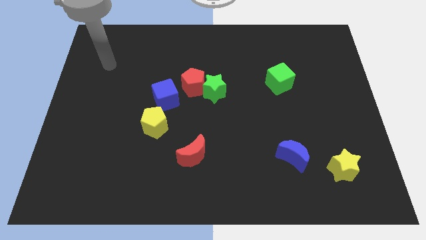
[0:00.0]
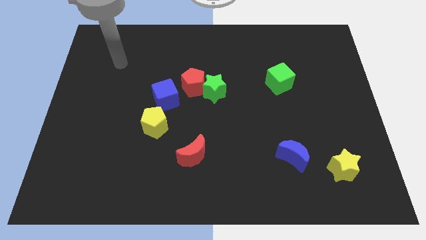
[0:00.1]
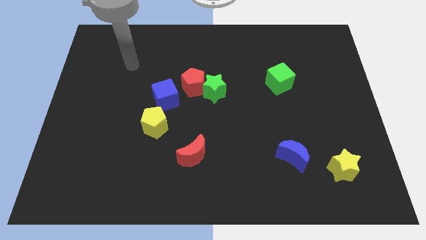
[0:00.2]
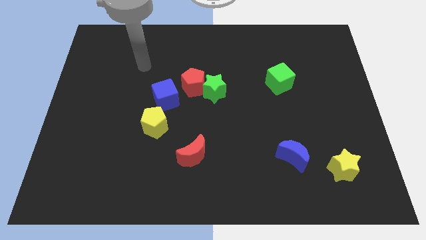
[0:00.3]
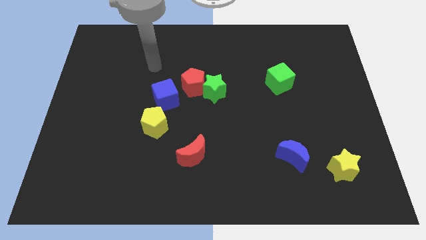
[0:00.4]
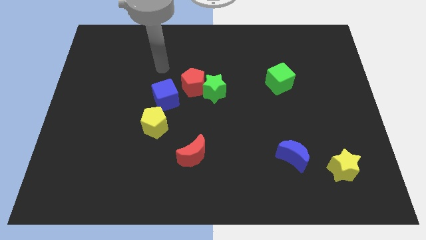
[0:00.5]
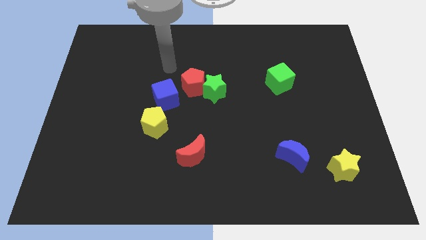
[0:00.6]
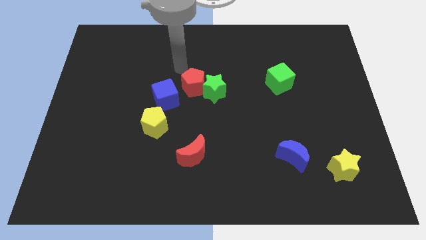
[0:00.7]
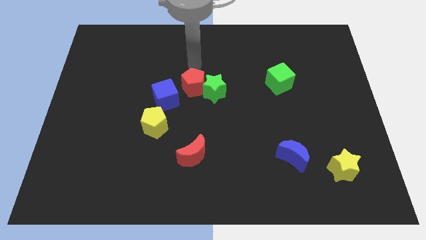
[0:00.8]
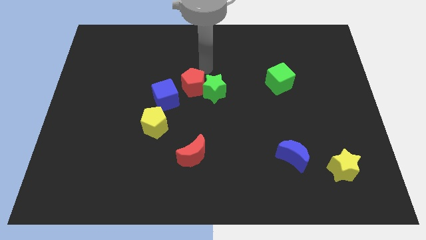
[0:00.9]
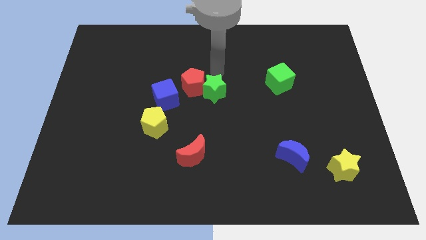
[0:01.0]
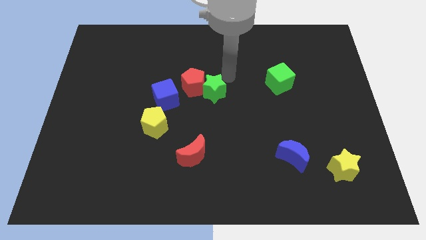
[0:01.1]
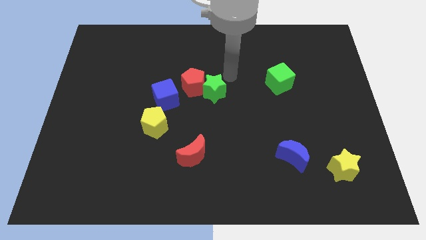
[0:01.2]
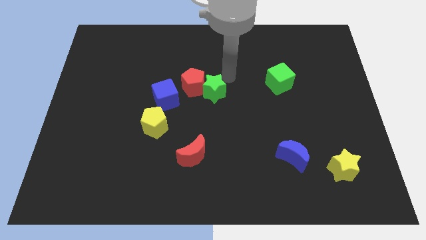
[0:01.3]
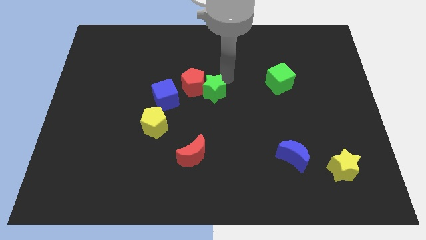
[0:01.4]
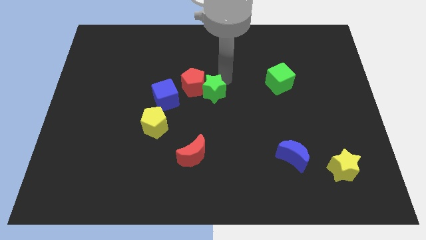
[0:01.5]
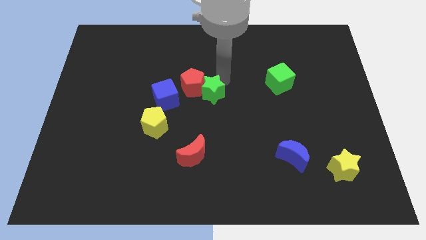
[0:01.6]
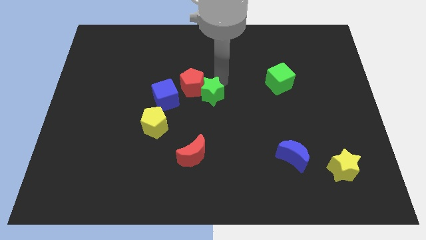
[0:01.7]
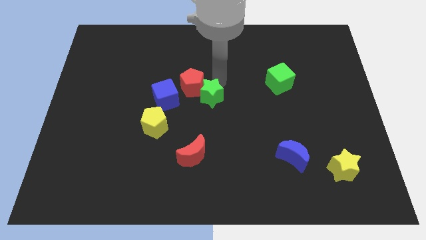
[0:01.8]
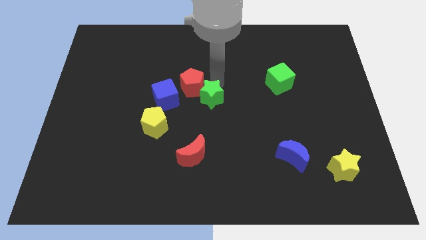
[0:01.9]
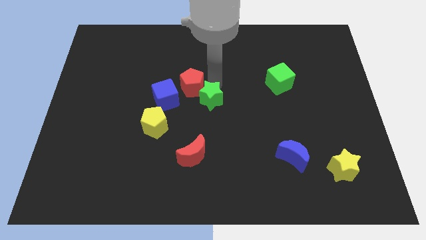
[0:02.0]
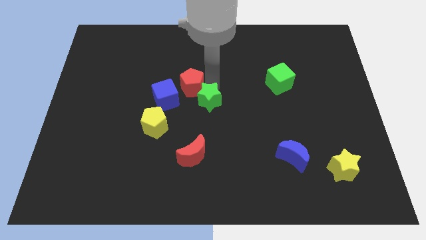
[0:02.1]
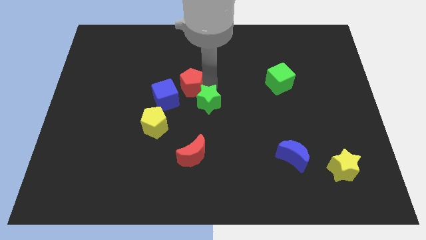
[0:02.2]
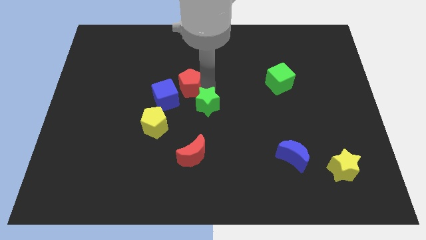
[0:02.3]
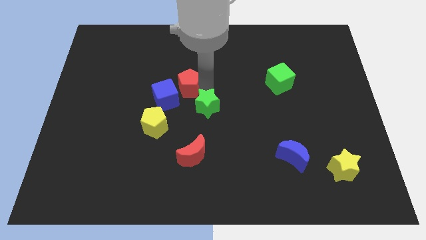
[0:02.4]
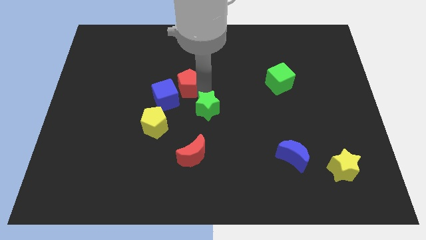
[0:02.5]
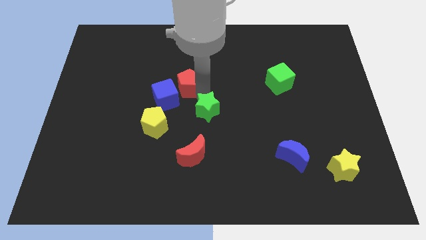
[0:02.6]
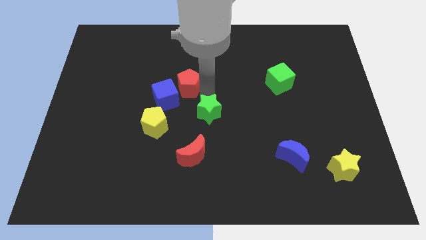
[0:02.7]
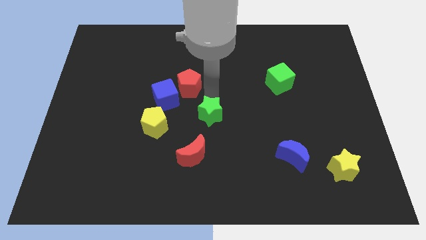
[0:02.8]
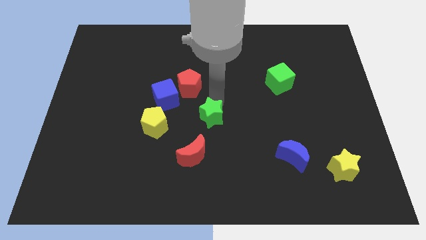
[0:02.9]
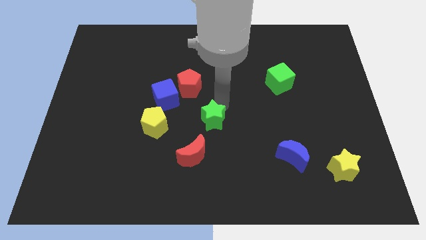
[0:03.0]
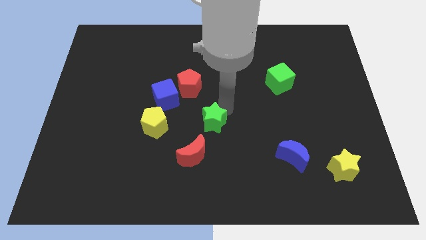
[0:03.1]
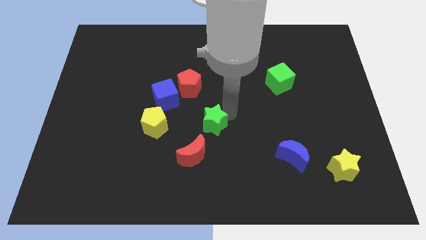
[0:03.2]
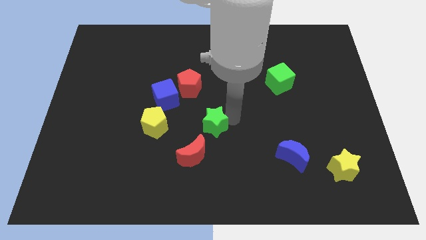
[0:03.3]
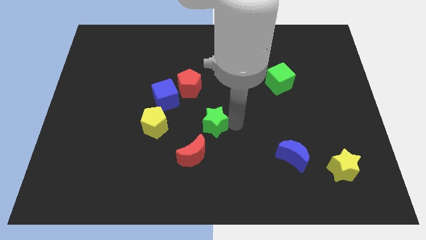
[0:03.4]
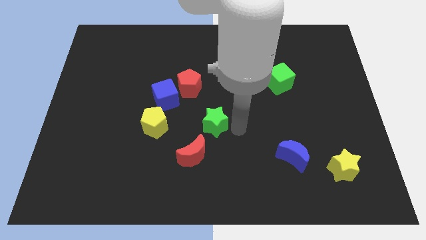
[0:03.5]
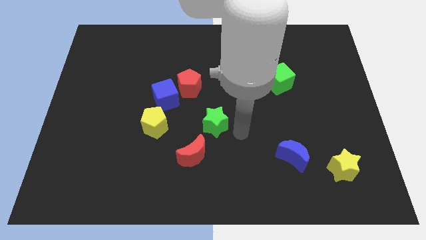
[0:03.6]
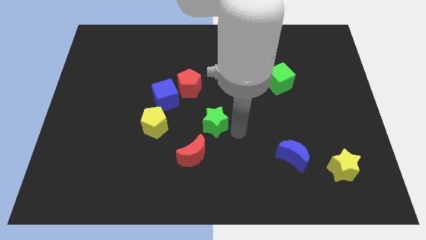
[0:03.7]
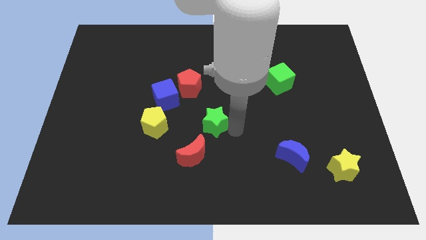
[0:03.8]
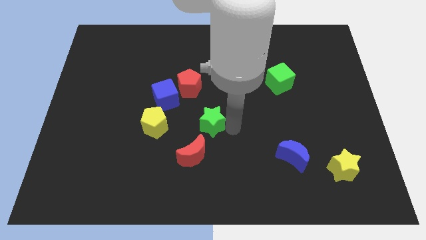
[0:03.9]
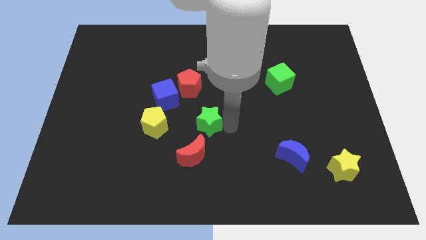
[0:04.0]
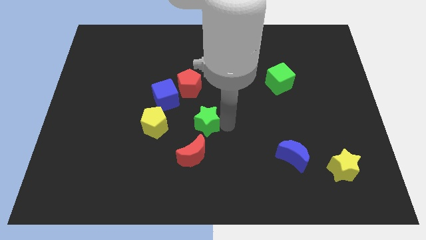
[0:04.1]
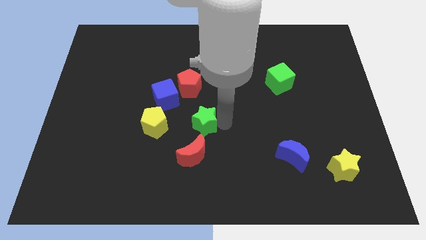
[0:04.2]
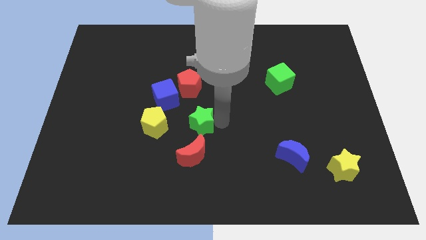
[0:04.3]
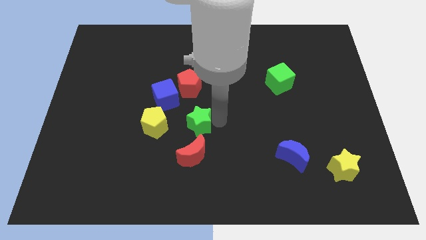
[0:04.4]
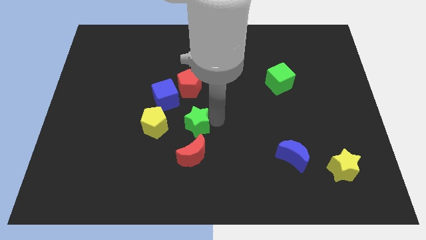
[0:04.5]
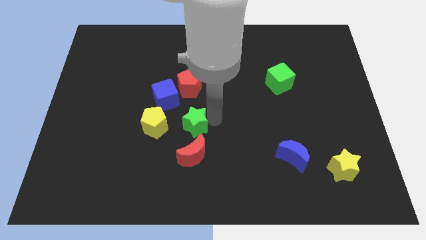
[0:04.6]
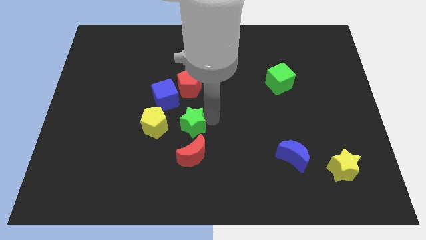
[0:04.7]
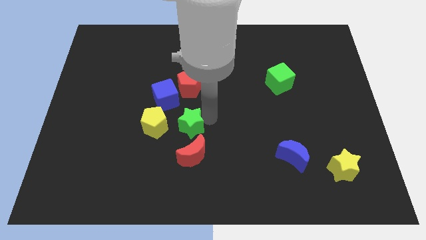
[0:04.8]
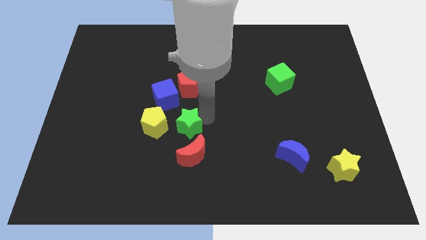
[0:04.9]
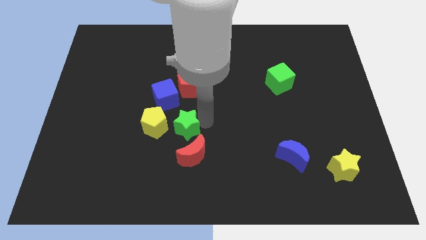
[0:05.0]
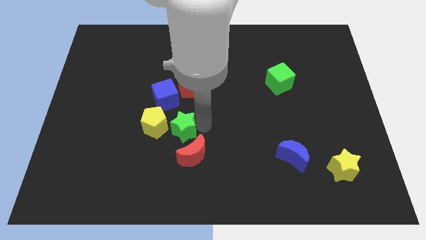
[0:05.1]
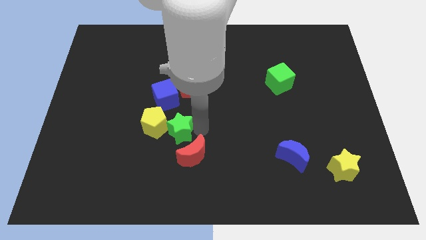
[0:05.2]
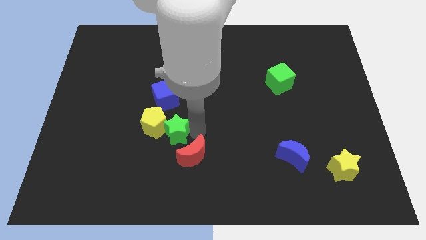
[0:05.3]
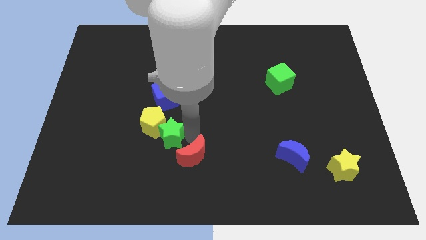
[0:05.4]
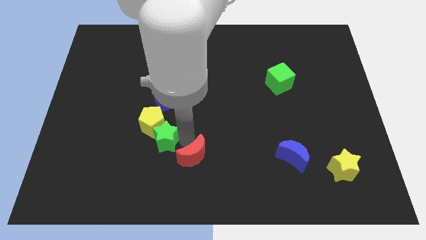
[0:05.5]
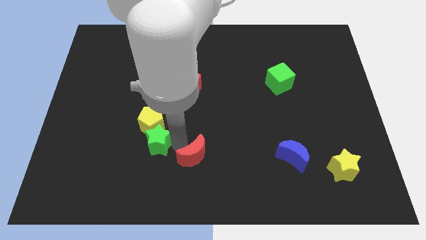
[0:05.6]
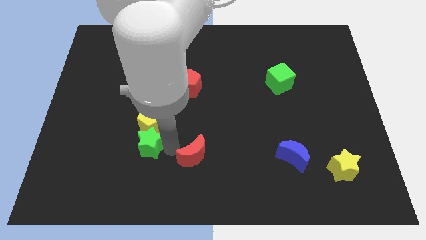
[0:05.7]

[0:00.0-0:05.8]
push the green star diagonally down and left

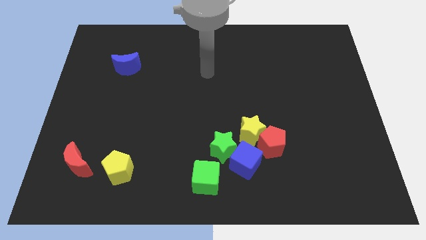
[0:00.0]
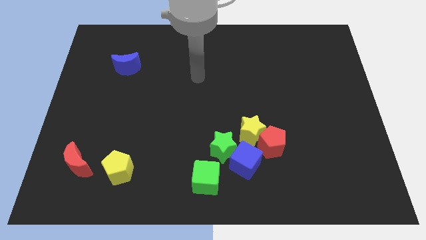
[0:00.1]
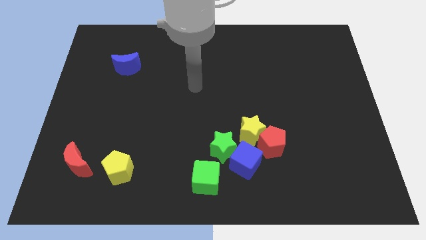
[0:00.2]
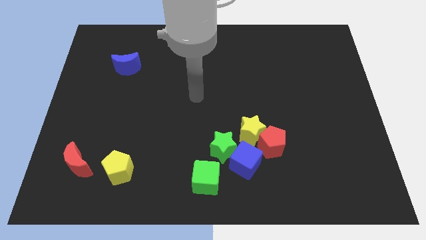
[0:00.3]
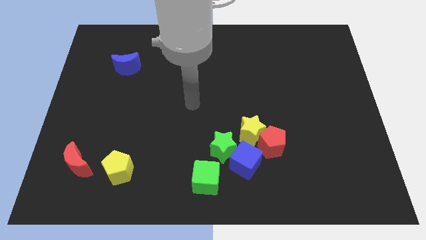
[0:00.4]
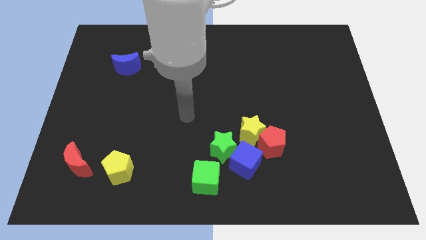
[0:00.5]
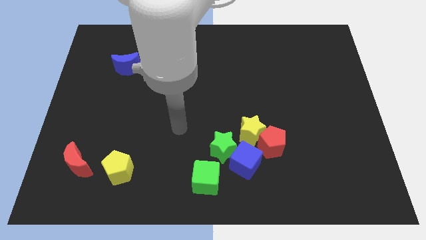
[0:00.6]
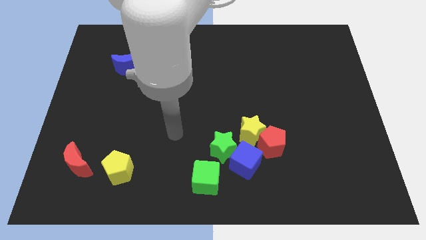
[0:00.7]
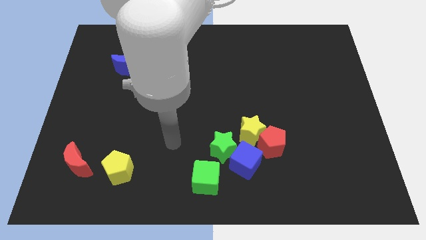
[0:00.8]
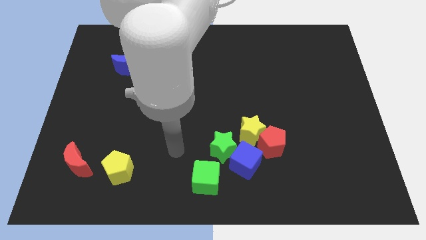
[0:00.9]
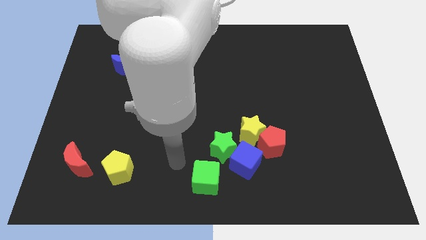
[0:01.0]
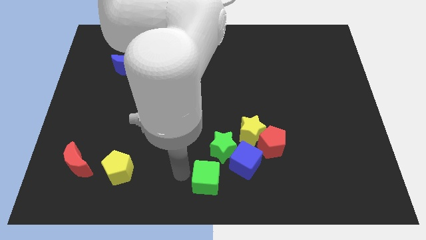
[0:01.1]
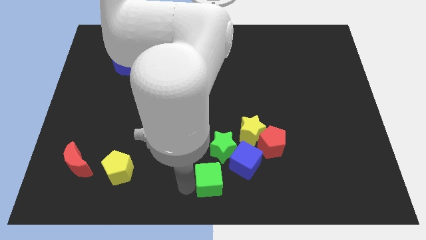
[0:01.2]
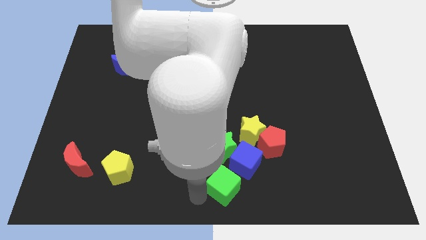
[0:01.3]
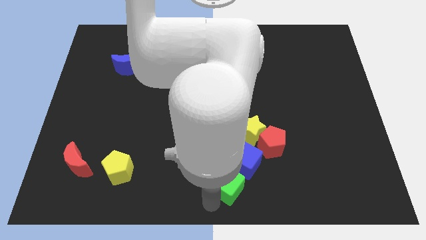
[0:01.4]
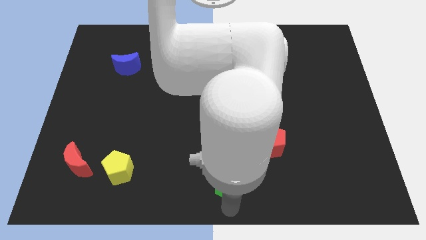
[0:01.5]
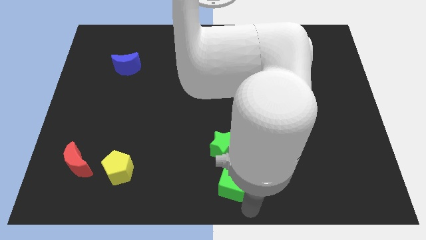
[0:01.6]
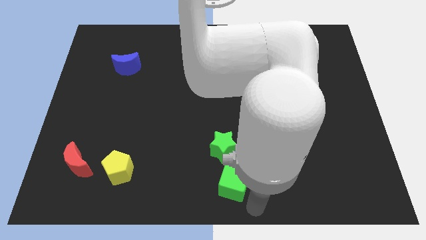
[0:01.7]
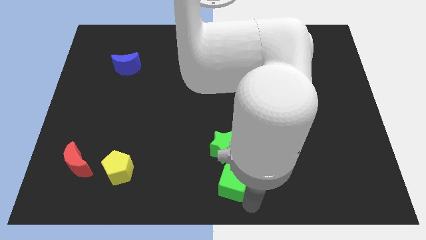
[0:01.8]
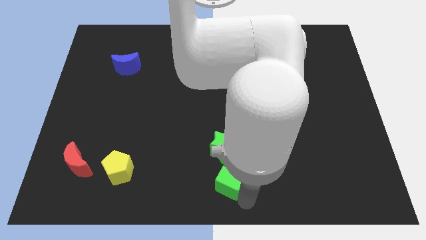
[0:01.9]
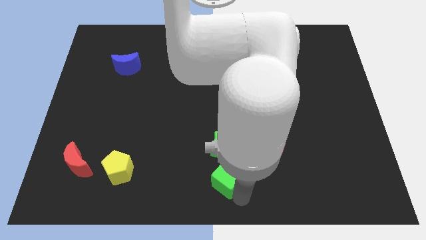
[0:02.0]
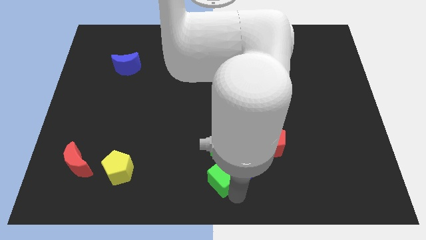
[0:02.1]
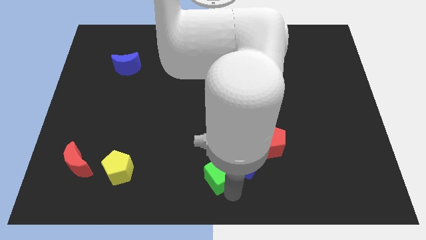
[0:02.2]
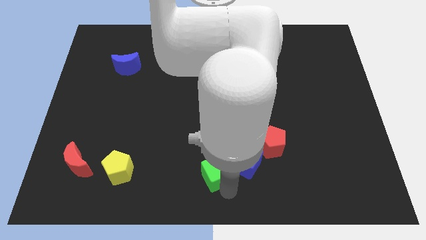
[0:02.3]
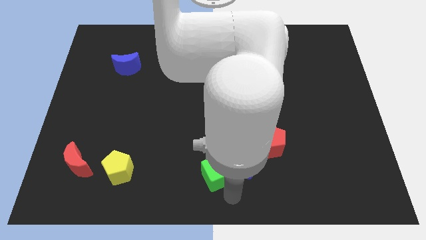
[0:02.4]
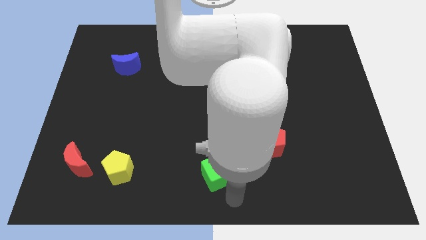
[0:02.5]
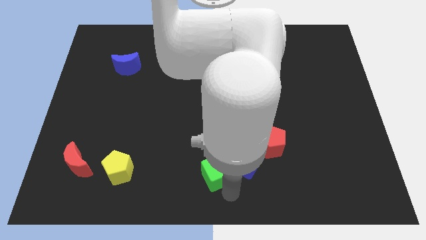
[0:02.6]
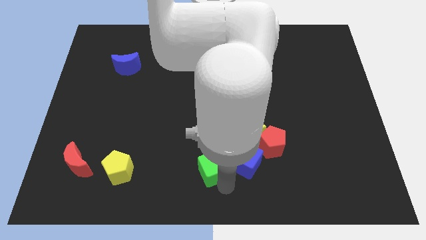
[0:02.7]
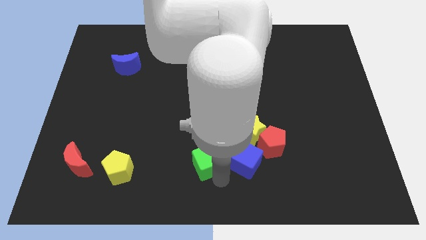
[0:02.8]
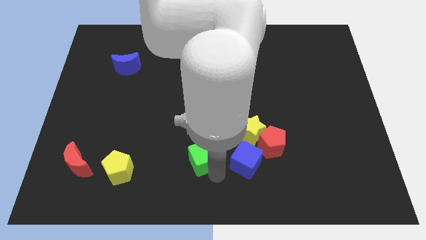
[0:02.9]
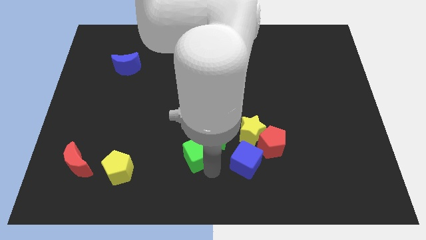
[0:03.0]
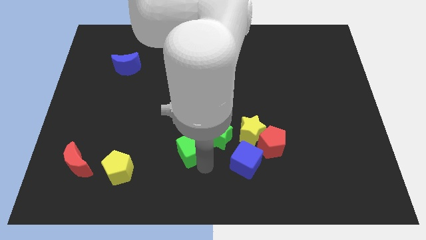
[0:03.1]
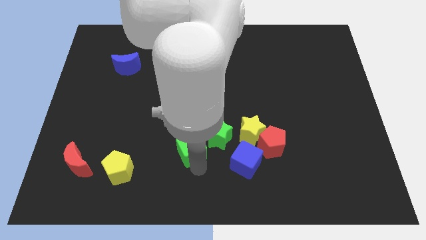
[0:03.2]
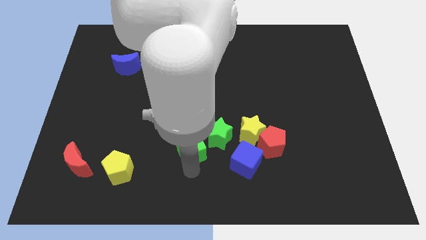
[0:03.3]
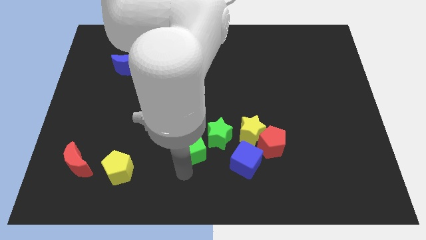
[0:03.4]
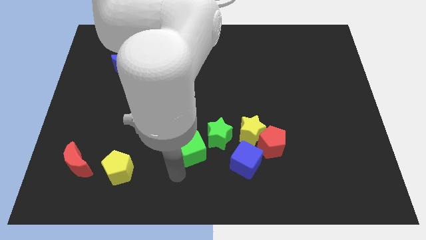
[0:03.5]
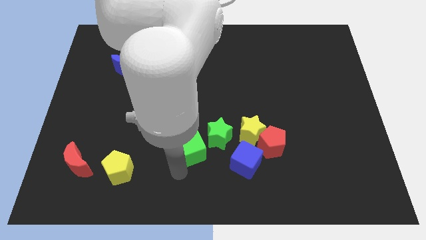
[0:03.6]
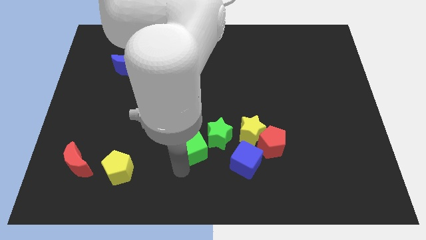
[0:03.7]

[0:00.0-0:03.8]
slide the green cube a little up
